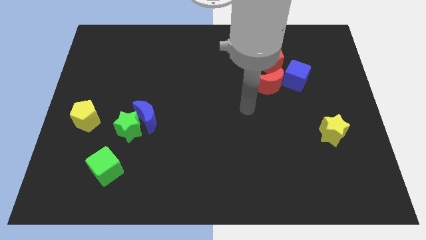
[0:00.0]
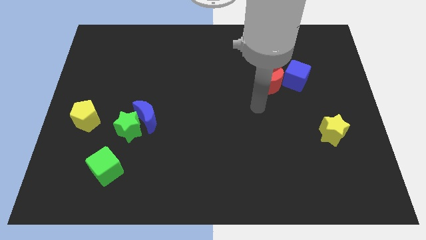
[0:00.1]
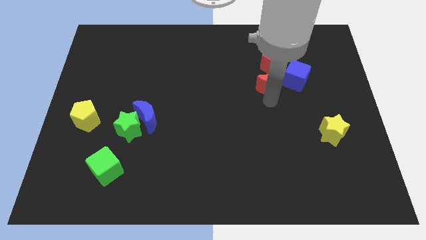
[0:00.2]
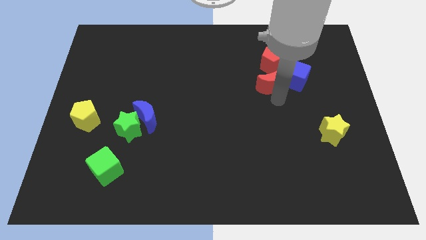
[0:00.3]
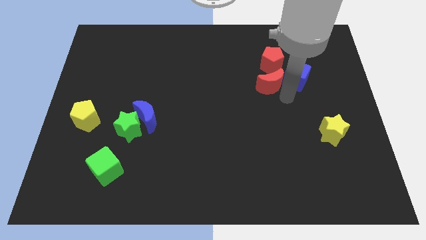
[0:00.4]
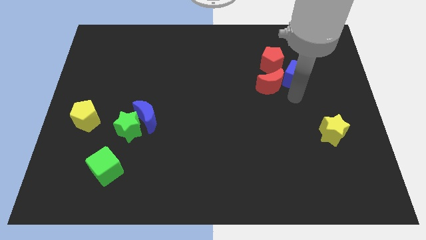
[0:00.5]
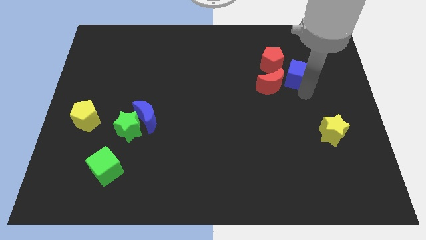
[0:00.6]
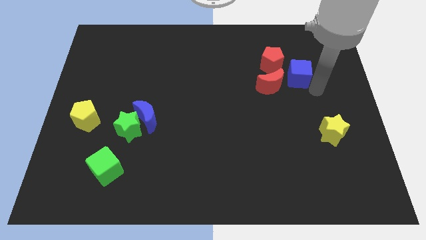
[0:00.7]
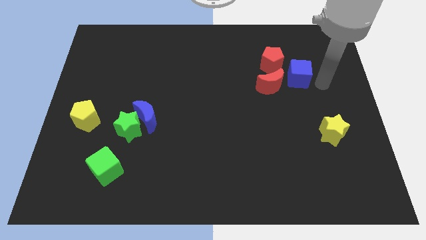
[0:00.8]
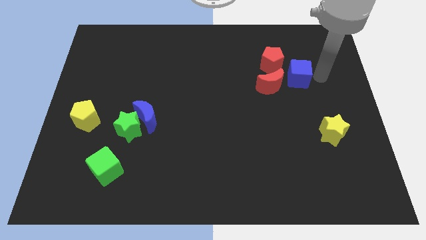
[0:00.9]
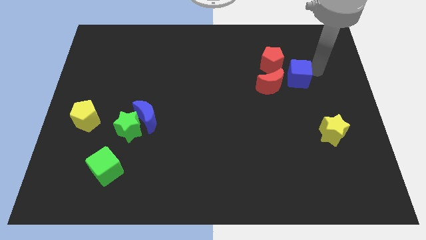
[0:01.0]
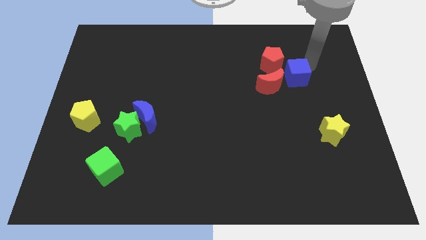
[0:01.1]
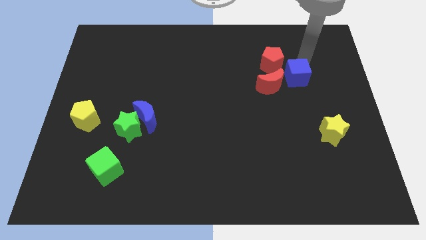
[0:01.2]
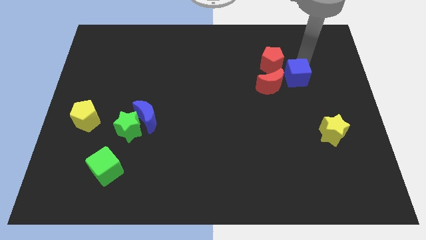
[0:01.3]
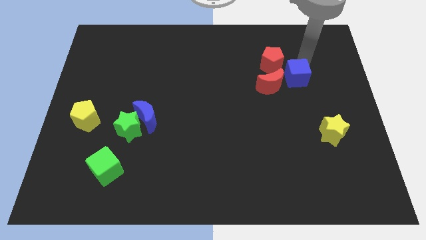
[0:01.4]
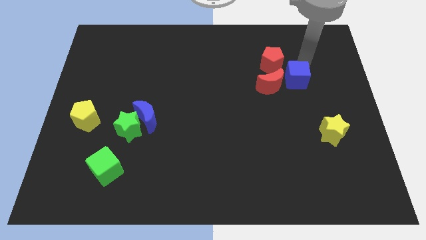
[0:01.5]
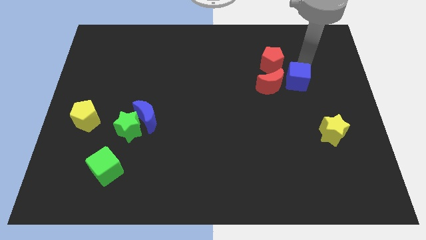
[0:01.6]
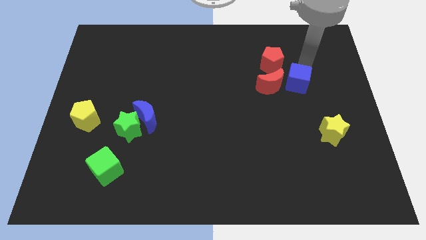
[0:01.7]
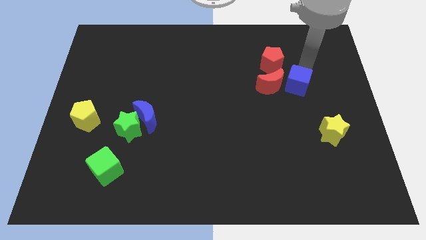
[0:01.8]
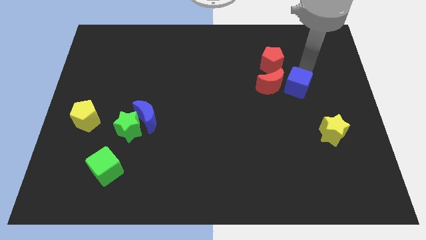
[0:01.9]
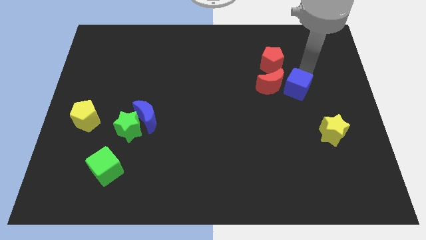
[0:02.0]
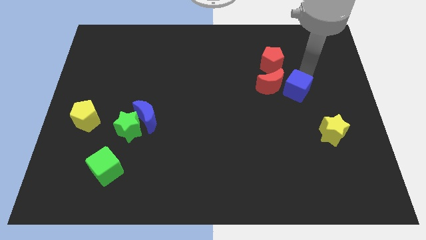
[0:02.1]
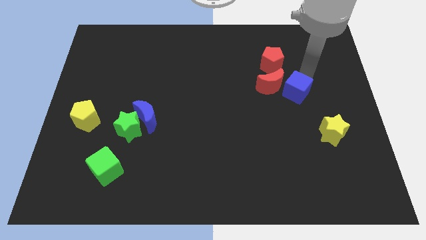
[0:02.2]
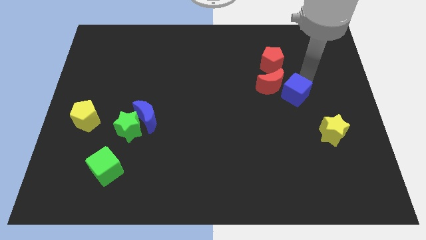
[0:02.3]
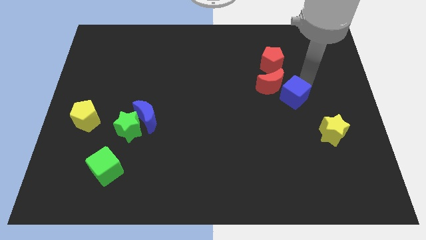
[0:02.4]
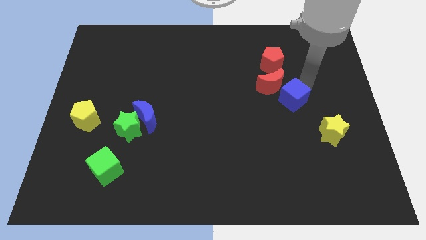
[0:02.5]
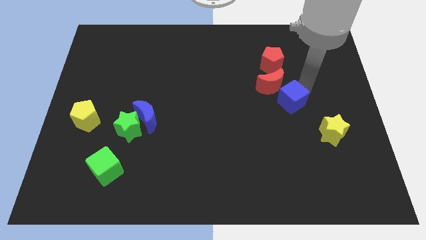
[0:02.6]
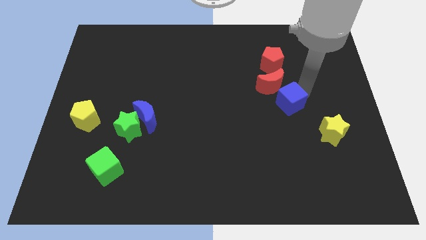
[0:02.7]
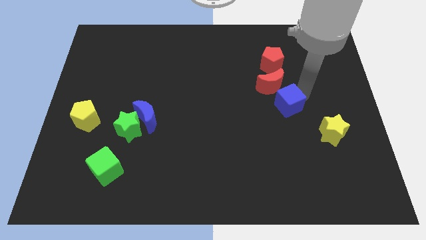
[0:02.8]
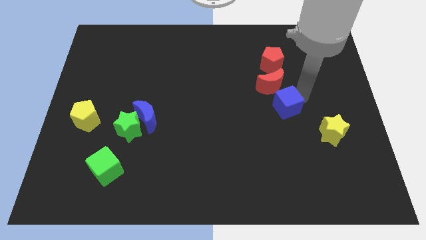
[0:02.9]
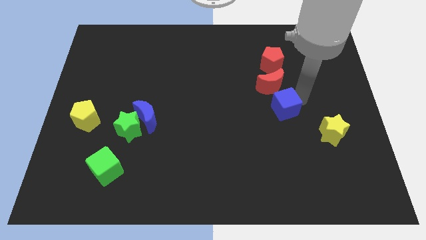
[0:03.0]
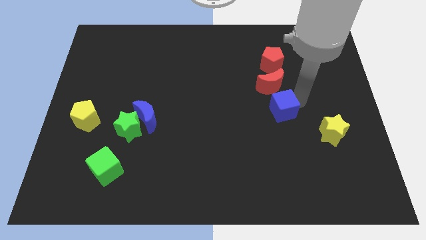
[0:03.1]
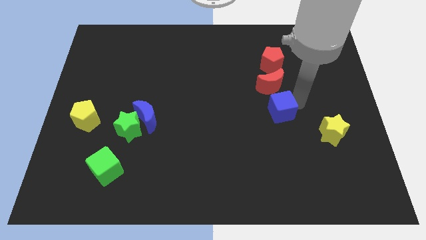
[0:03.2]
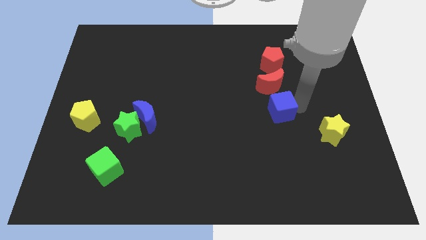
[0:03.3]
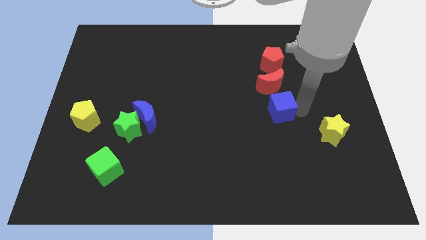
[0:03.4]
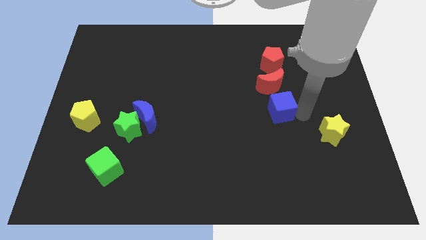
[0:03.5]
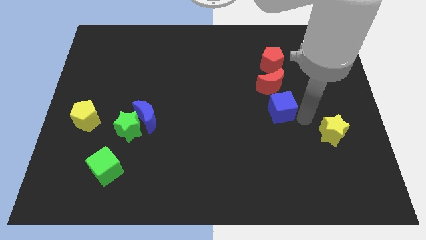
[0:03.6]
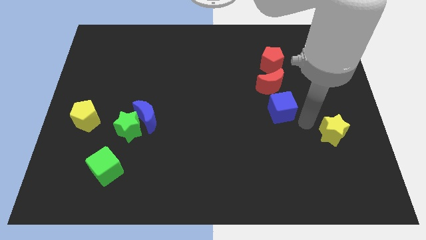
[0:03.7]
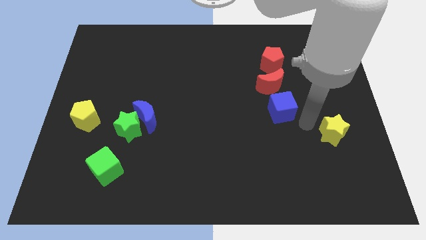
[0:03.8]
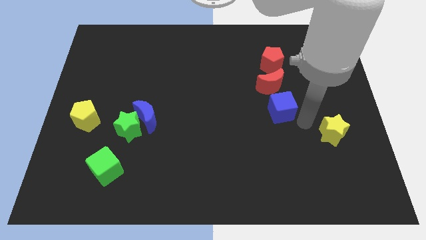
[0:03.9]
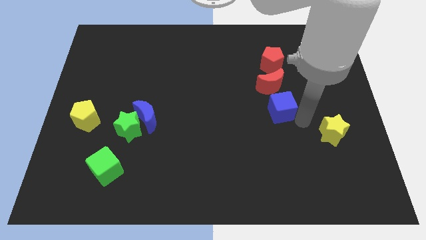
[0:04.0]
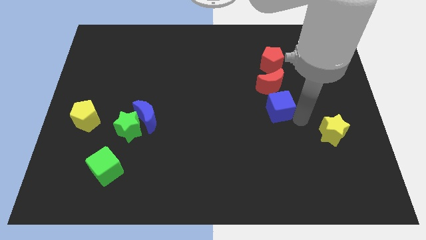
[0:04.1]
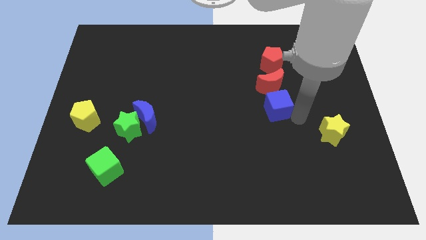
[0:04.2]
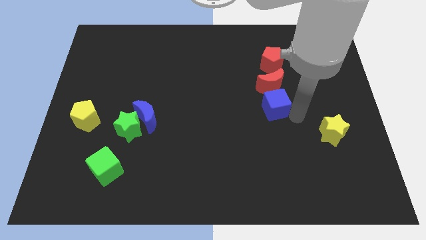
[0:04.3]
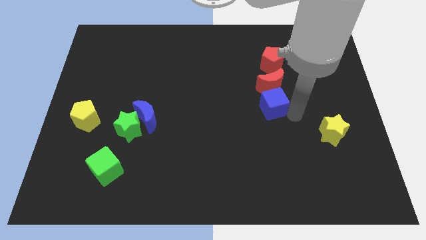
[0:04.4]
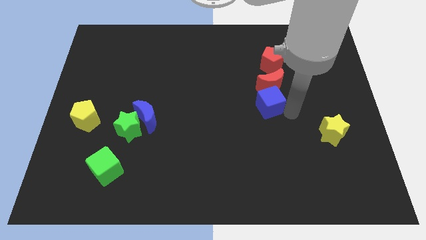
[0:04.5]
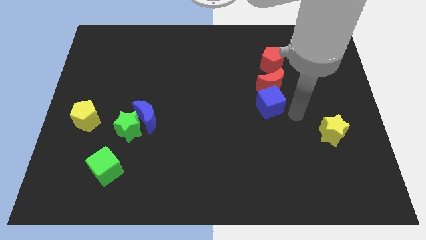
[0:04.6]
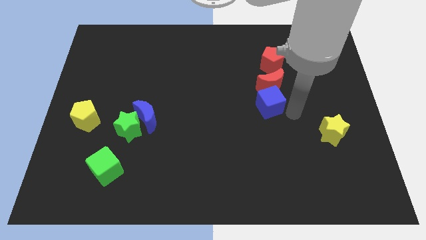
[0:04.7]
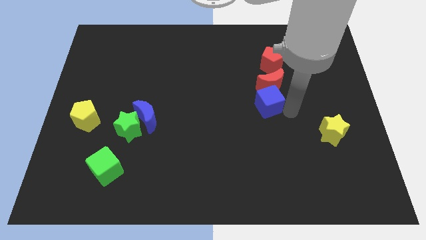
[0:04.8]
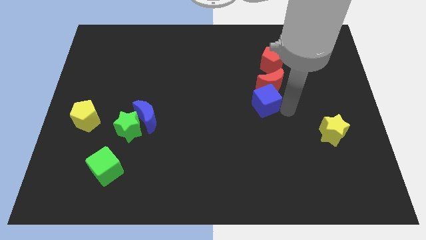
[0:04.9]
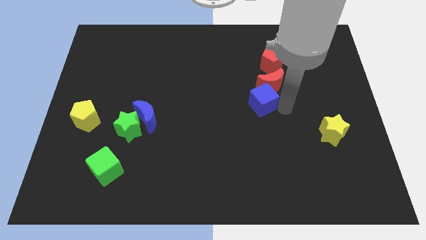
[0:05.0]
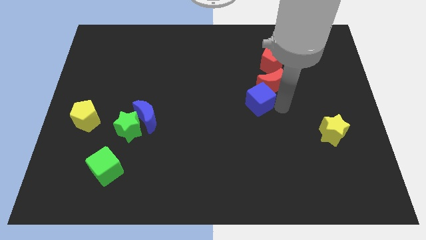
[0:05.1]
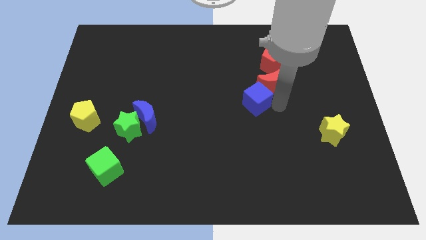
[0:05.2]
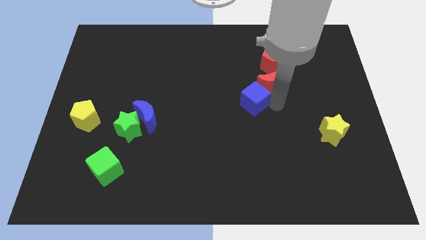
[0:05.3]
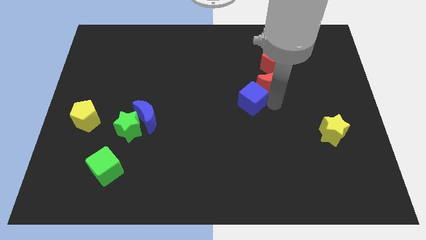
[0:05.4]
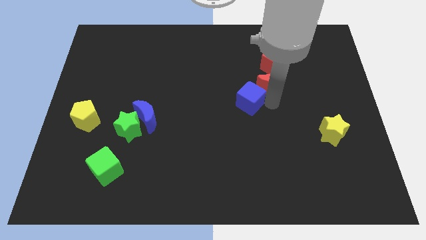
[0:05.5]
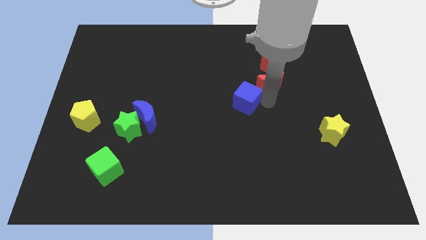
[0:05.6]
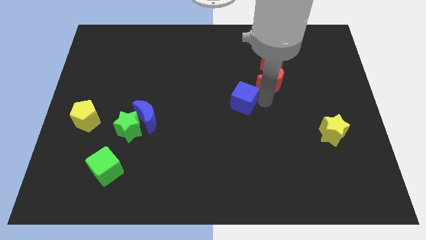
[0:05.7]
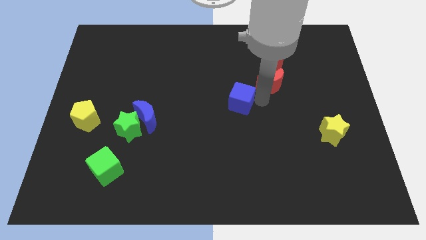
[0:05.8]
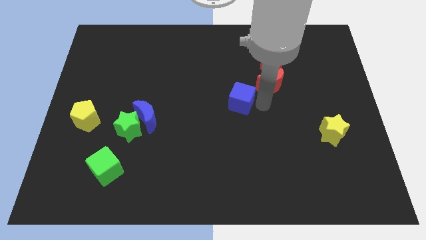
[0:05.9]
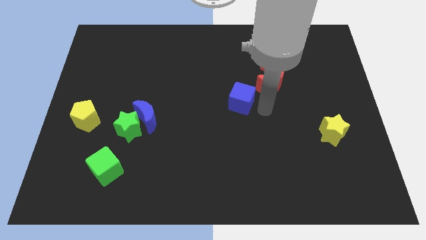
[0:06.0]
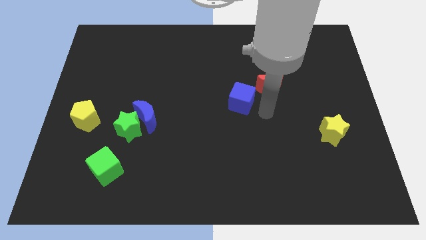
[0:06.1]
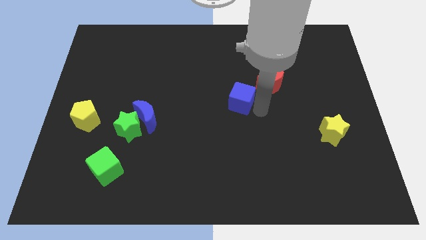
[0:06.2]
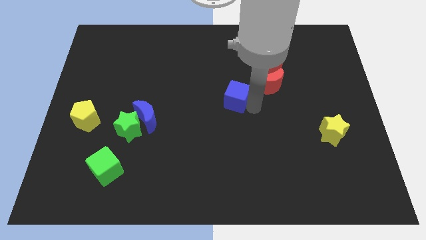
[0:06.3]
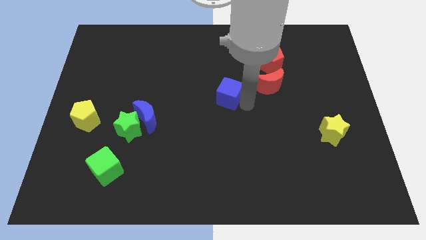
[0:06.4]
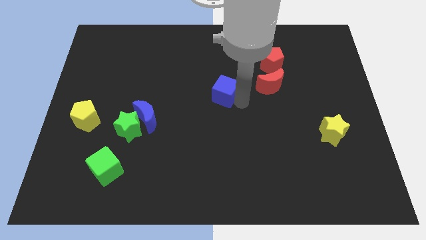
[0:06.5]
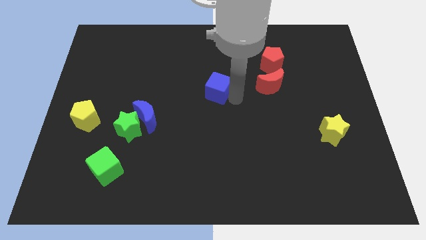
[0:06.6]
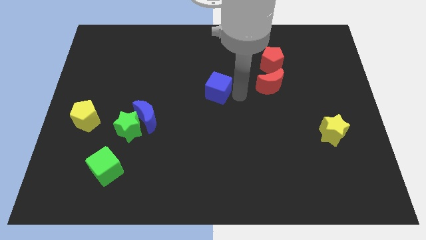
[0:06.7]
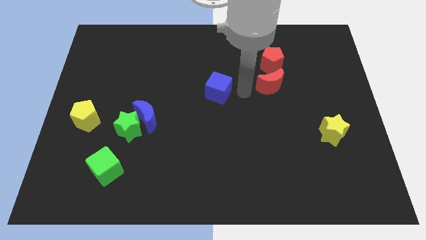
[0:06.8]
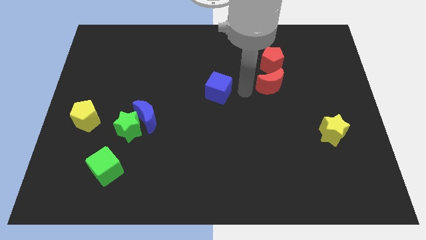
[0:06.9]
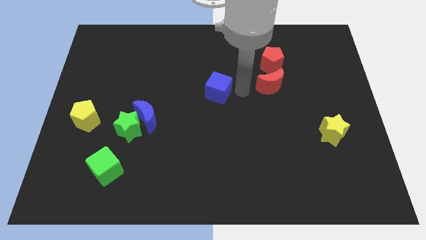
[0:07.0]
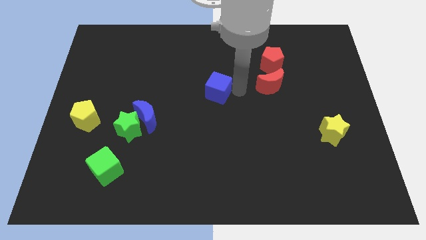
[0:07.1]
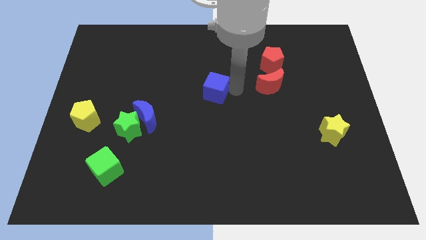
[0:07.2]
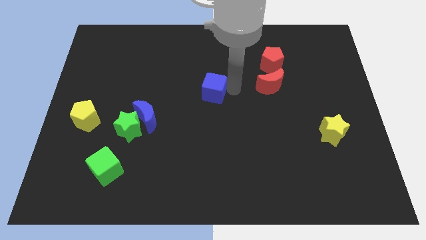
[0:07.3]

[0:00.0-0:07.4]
push the blue cube left

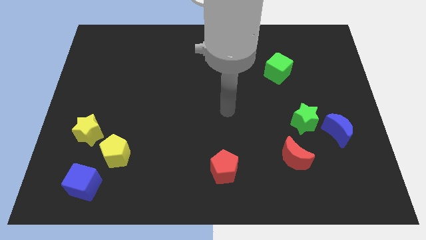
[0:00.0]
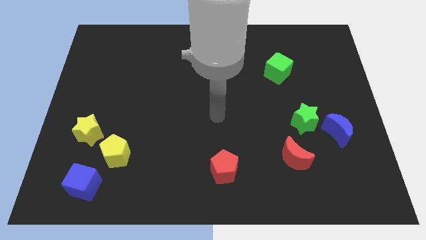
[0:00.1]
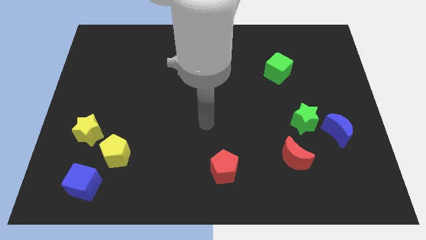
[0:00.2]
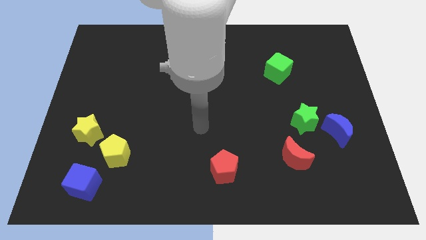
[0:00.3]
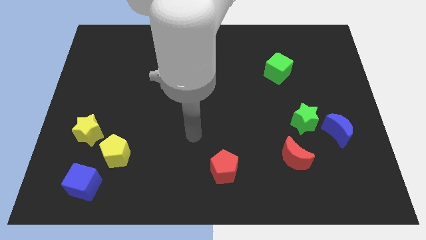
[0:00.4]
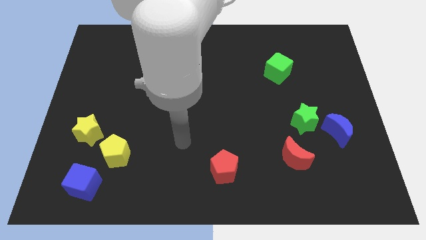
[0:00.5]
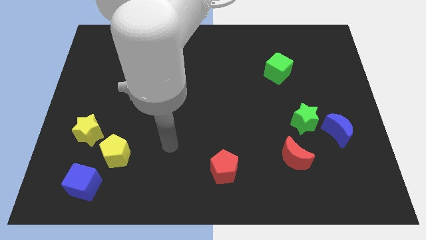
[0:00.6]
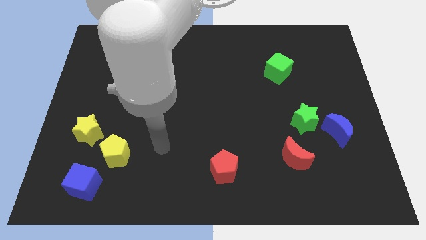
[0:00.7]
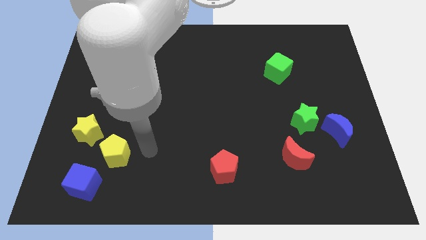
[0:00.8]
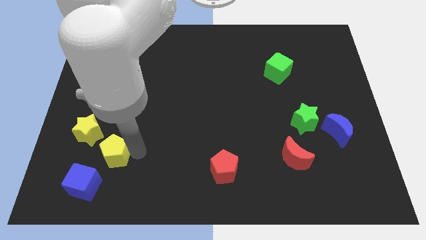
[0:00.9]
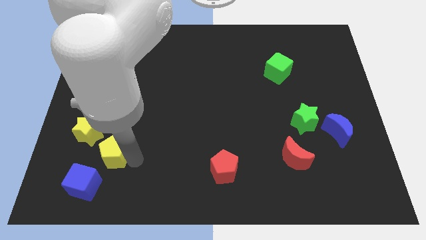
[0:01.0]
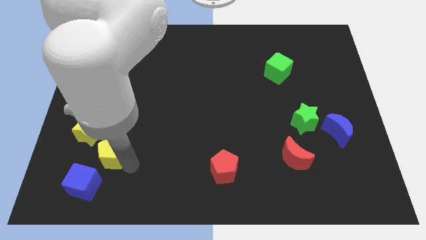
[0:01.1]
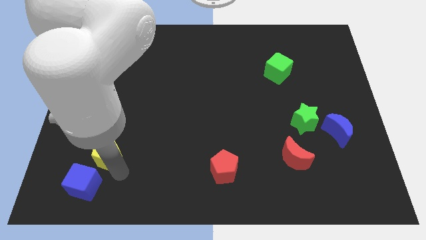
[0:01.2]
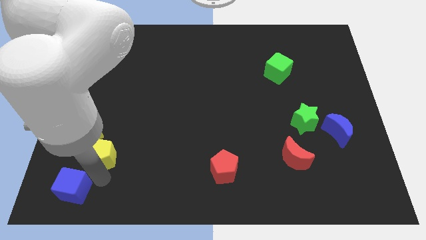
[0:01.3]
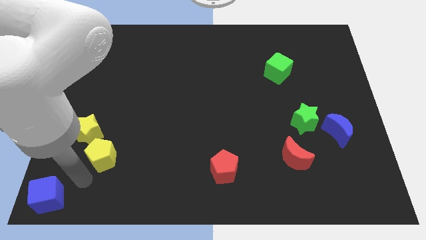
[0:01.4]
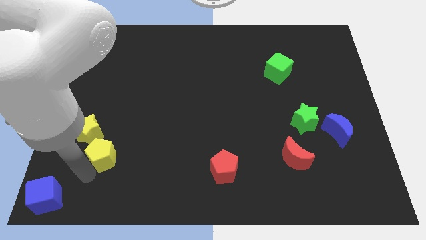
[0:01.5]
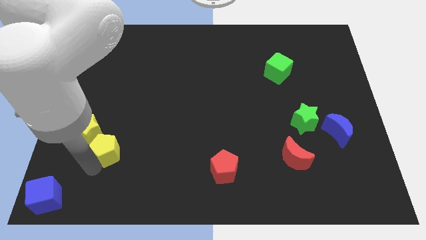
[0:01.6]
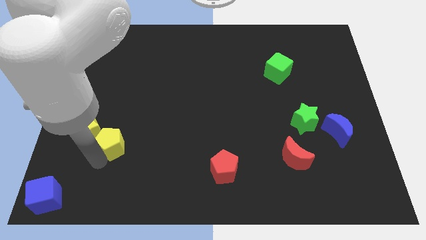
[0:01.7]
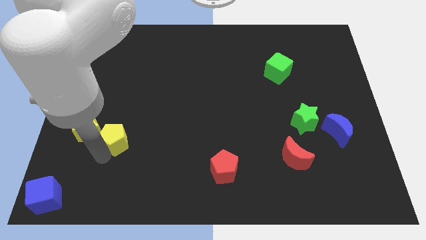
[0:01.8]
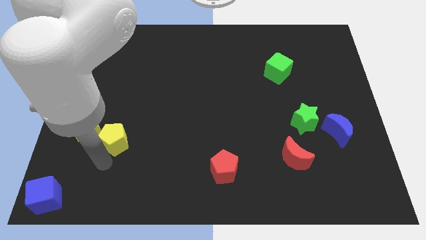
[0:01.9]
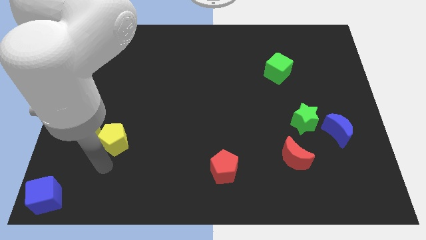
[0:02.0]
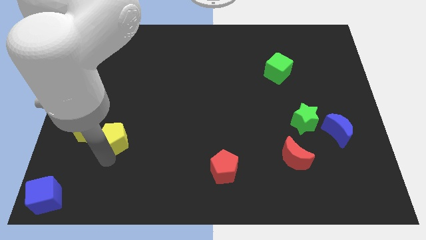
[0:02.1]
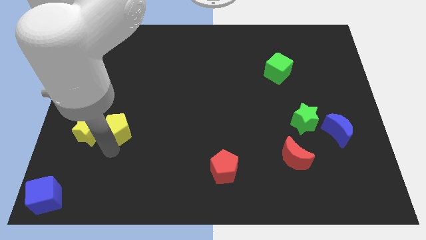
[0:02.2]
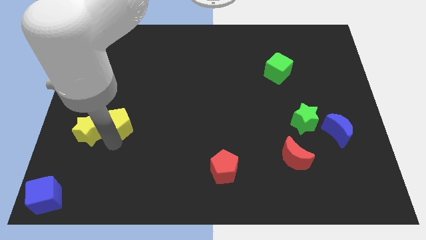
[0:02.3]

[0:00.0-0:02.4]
slightly move the yellow pentagon upwards
